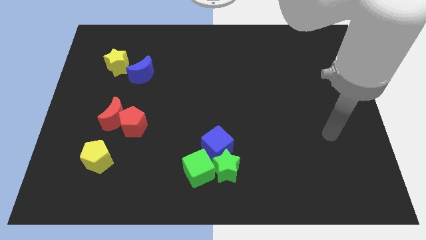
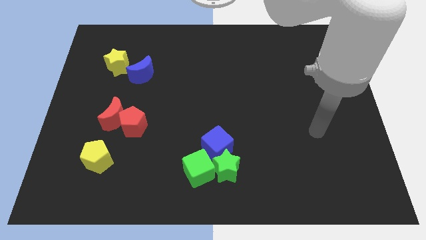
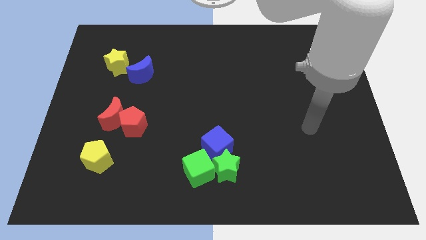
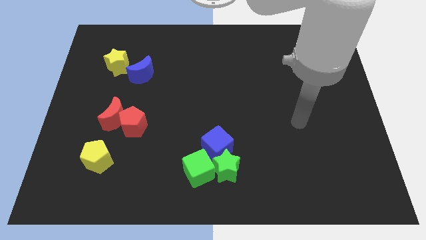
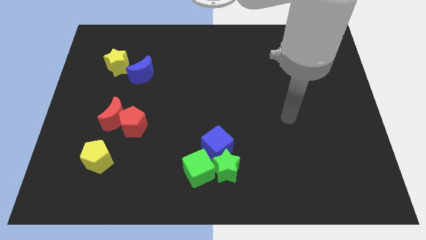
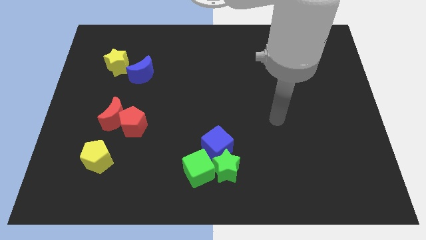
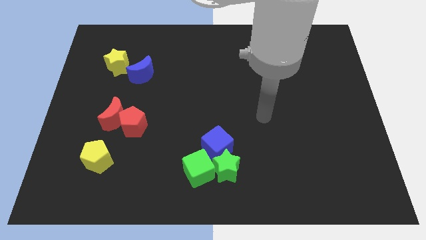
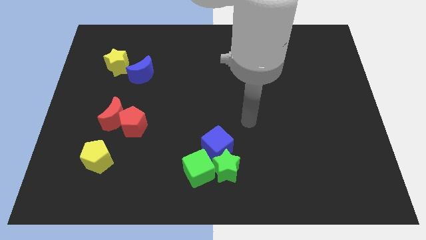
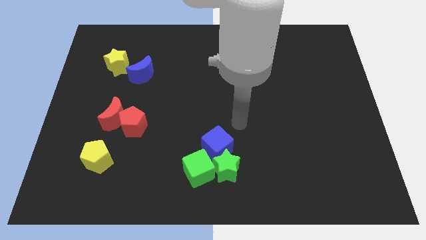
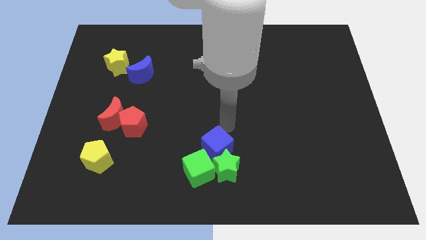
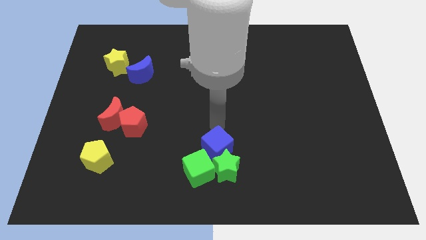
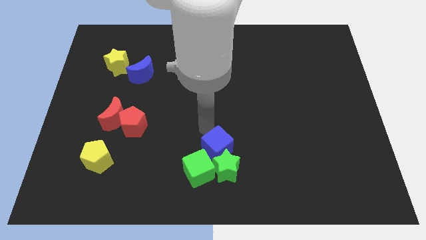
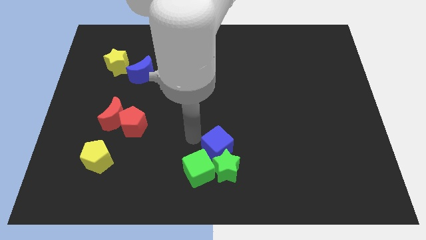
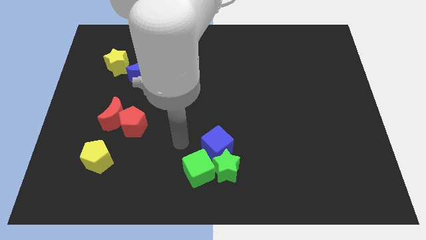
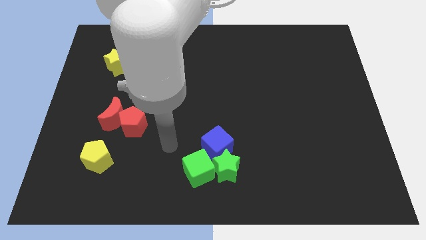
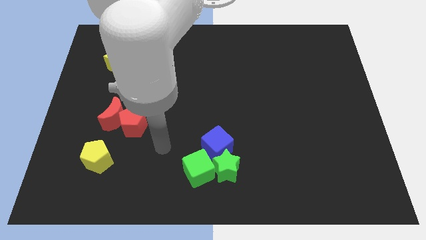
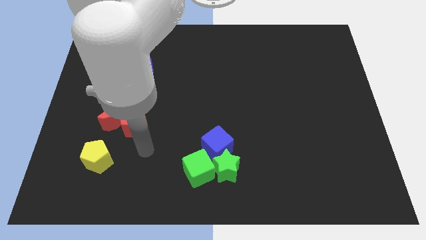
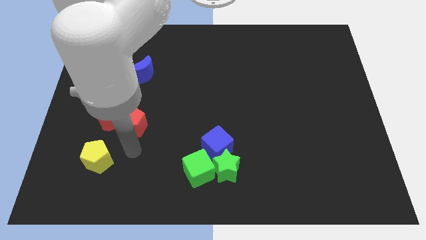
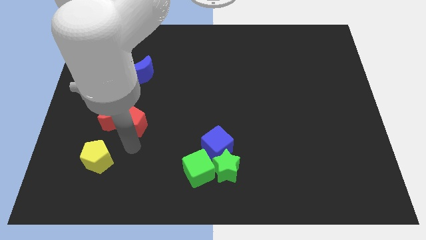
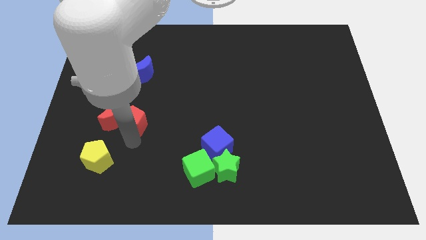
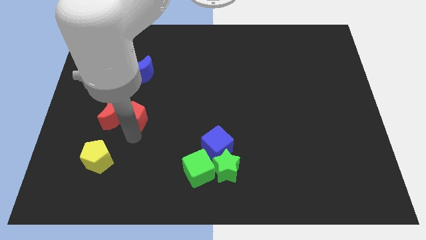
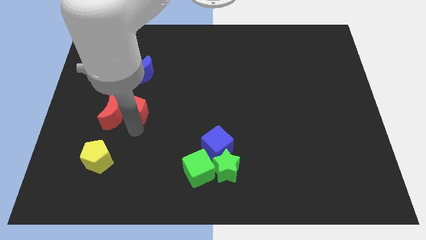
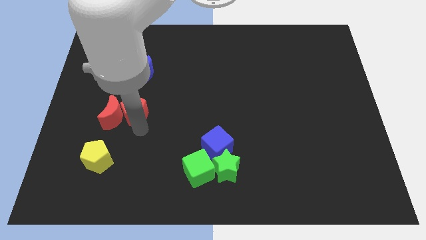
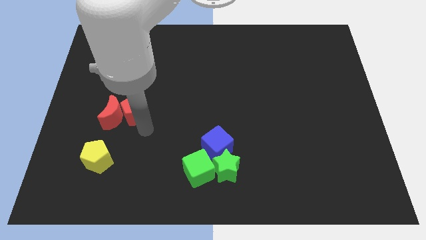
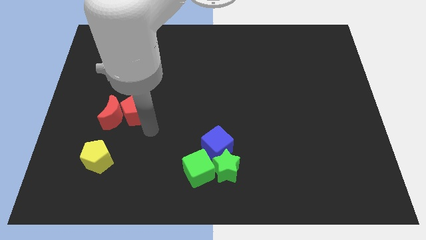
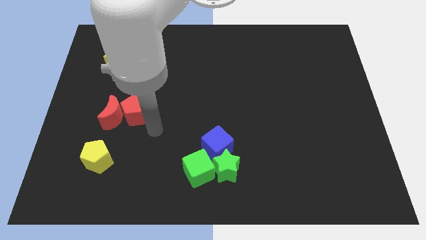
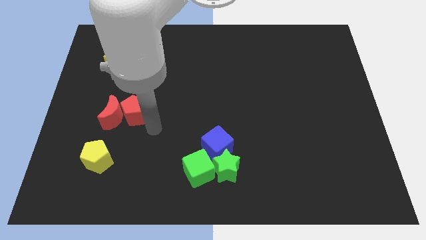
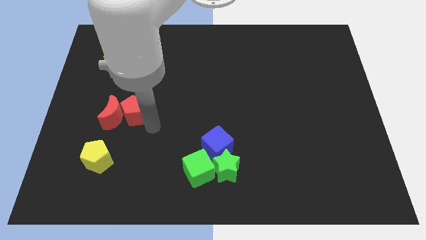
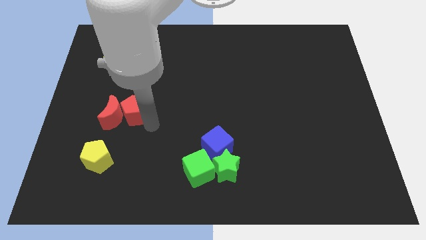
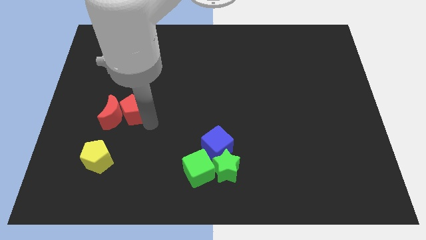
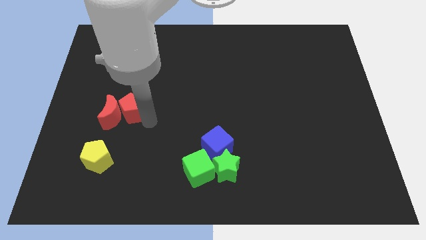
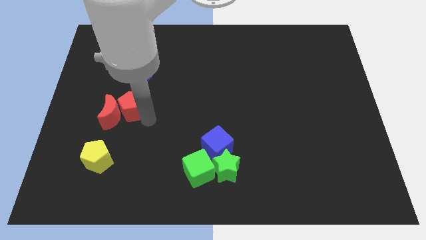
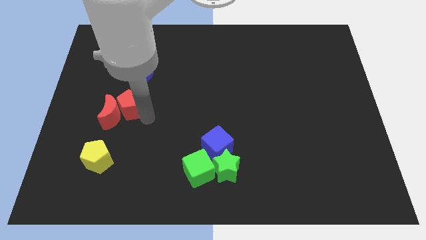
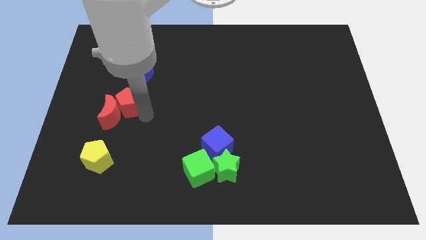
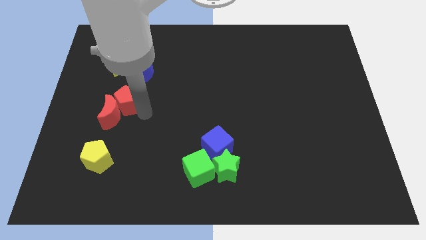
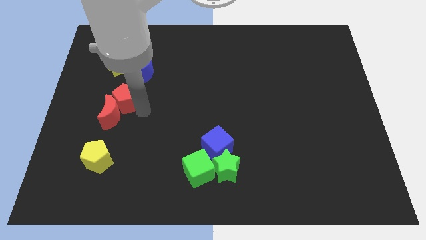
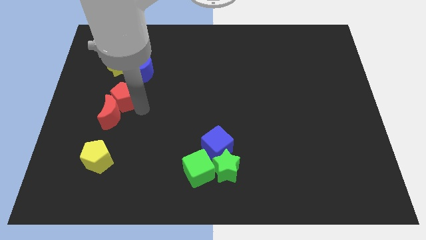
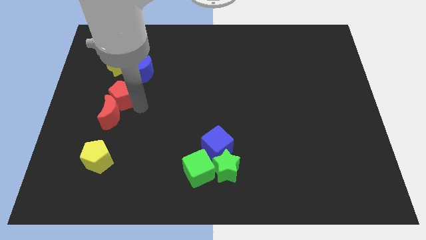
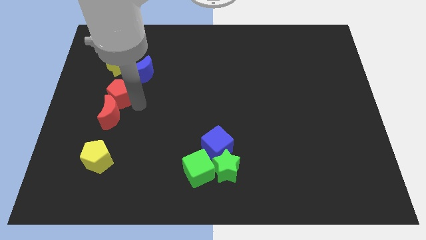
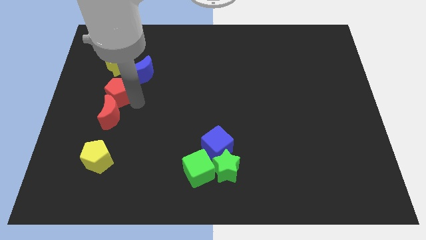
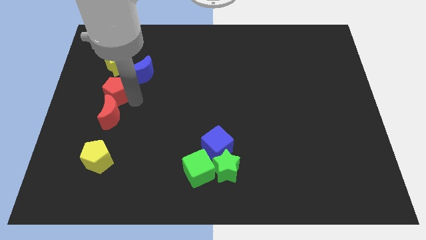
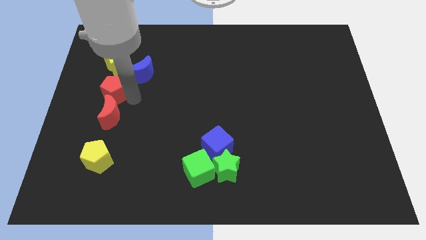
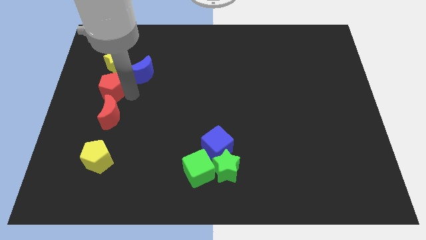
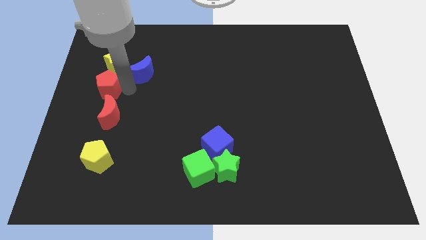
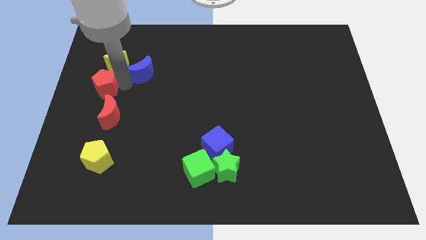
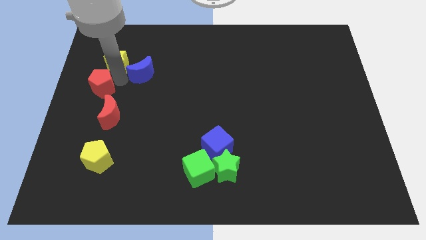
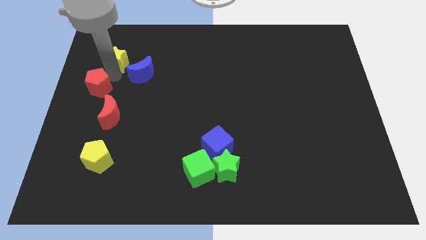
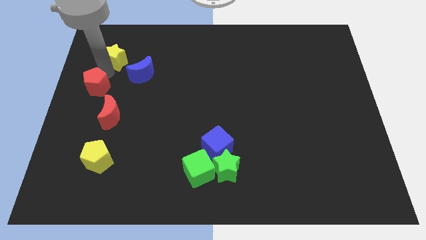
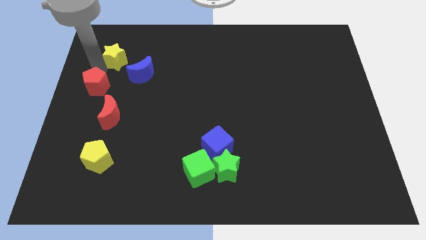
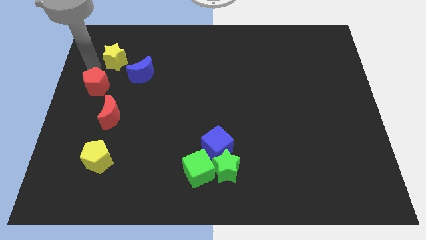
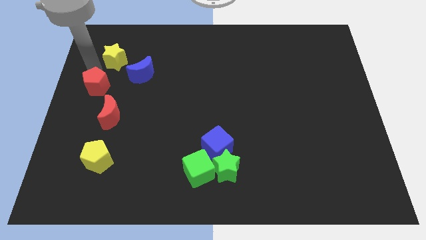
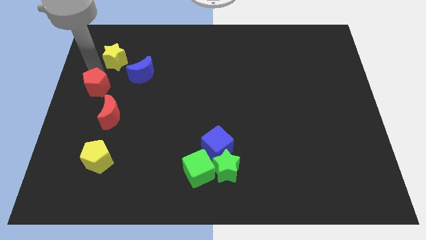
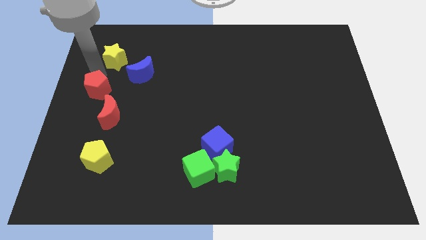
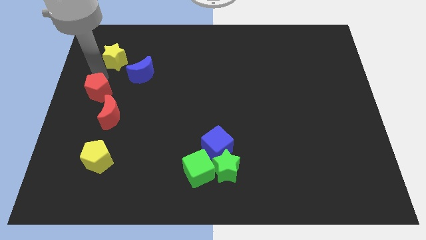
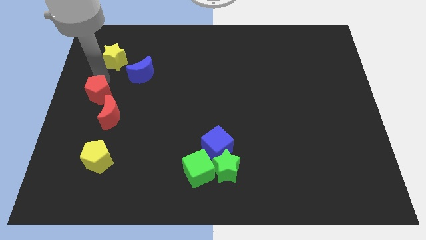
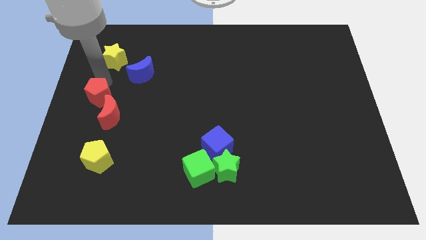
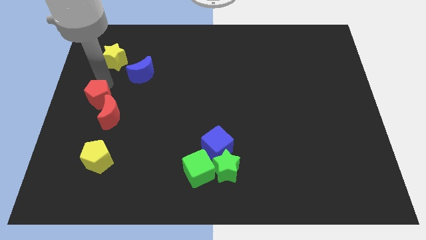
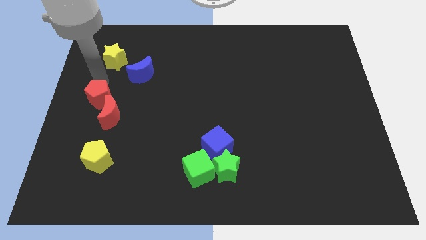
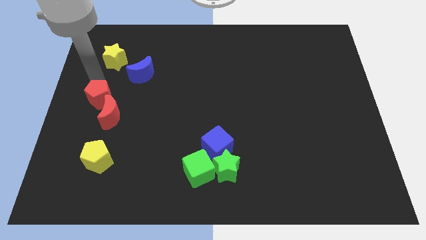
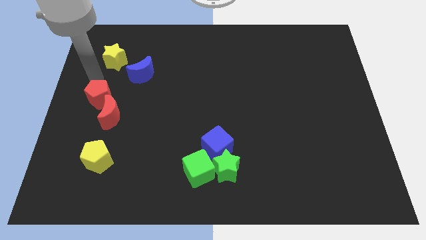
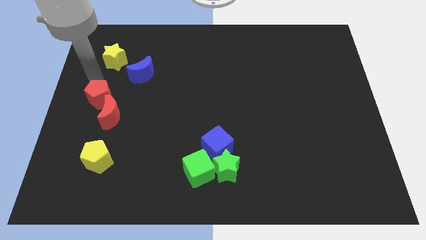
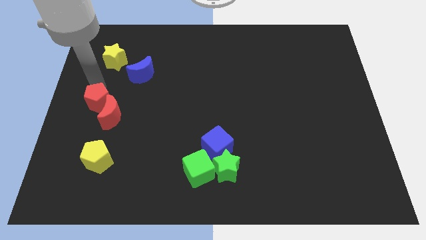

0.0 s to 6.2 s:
move the red pentagon above the yellow pentagon
